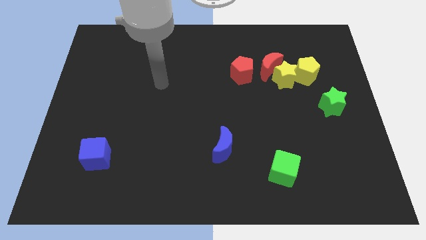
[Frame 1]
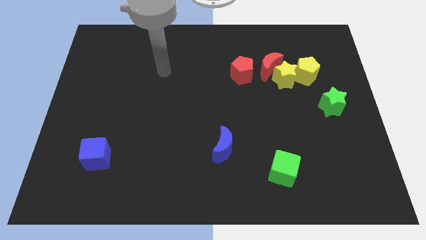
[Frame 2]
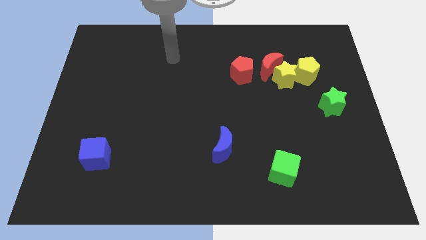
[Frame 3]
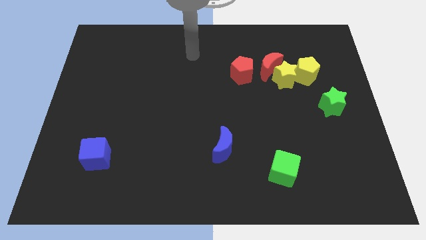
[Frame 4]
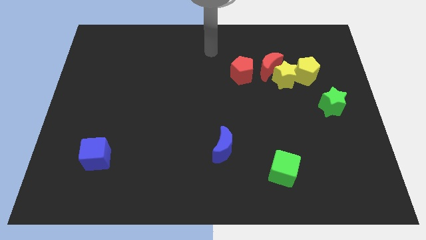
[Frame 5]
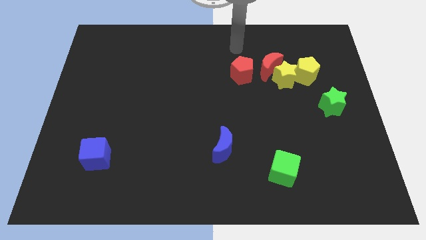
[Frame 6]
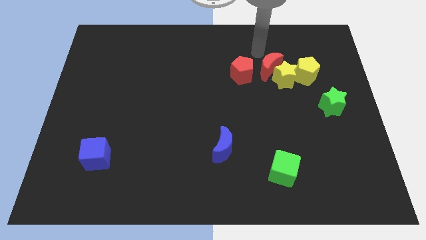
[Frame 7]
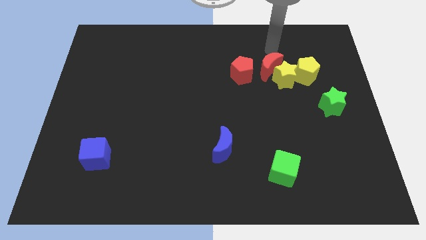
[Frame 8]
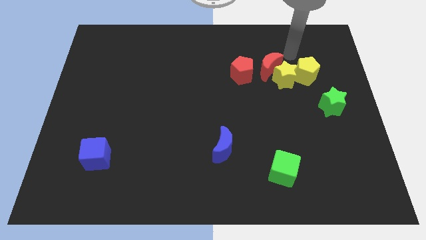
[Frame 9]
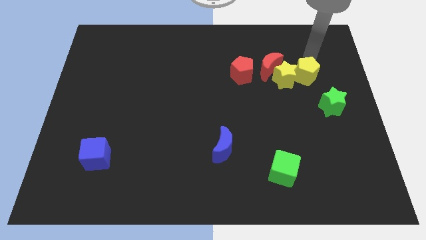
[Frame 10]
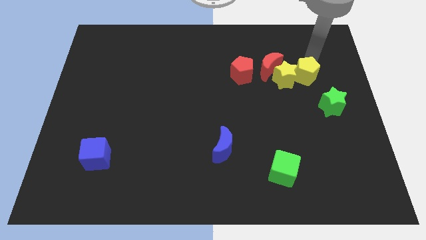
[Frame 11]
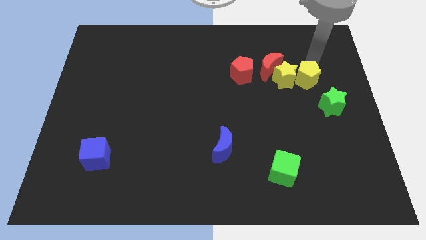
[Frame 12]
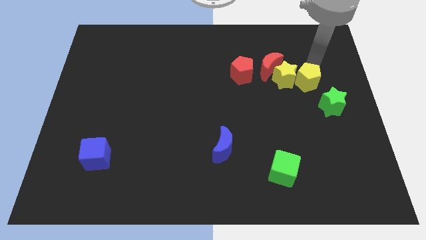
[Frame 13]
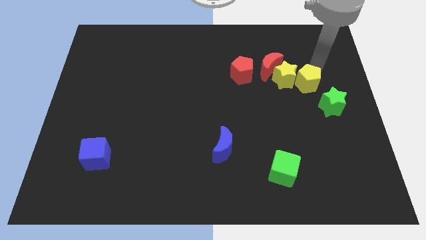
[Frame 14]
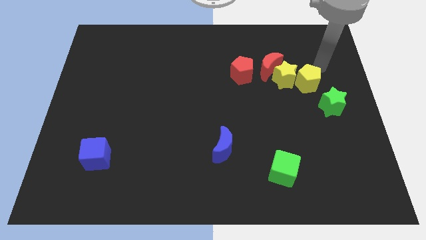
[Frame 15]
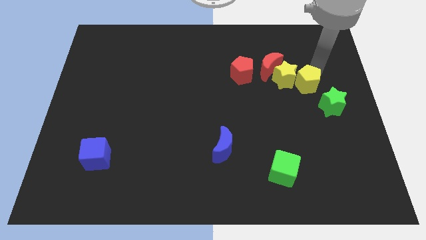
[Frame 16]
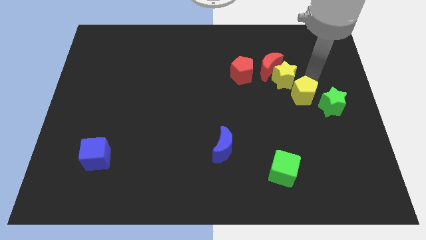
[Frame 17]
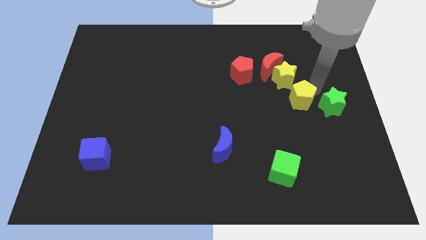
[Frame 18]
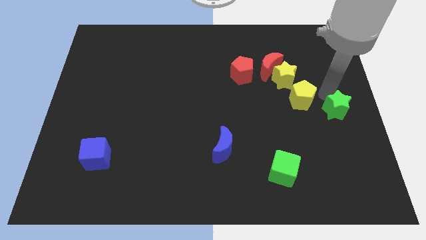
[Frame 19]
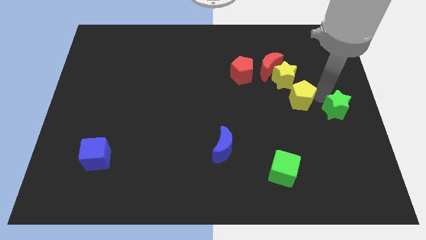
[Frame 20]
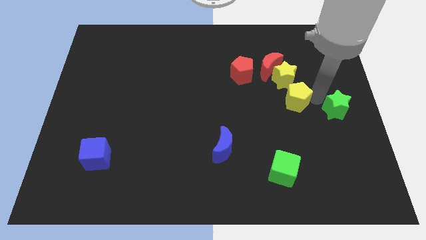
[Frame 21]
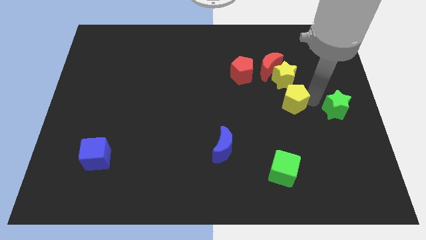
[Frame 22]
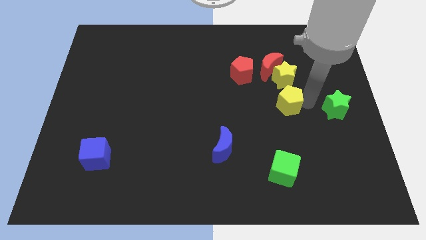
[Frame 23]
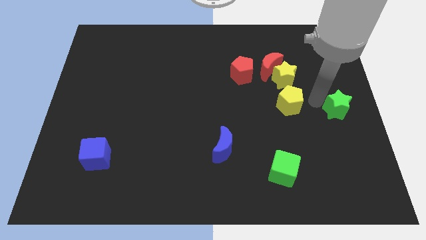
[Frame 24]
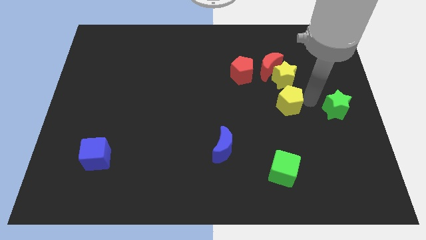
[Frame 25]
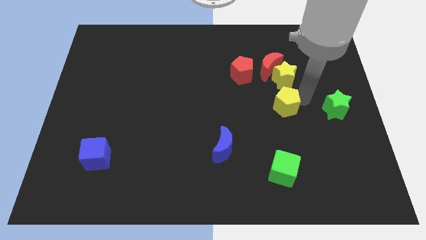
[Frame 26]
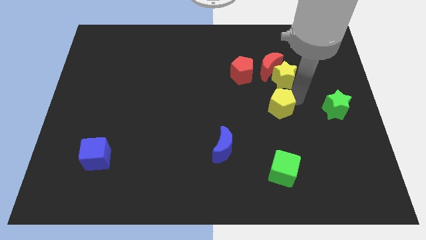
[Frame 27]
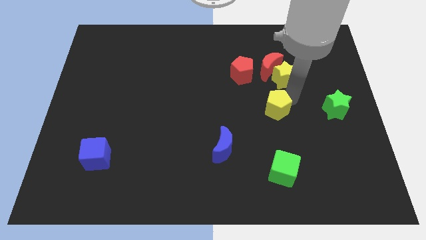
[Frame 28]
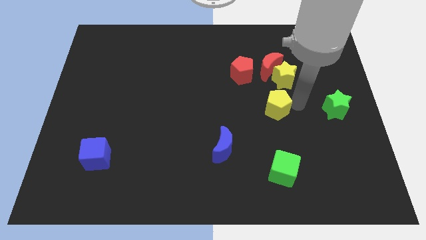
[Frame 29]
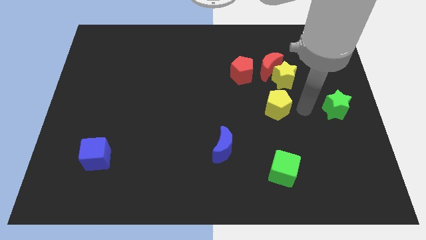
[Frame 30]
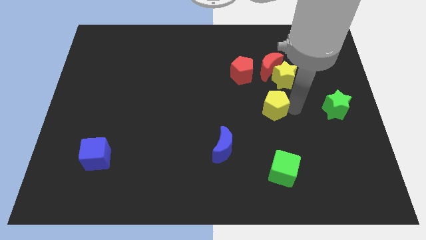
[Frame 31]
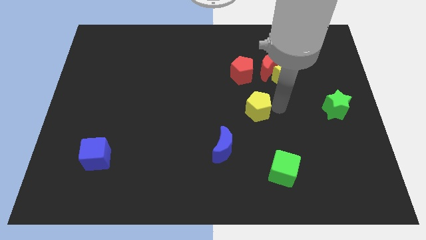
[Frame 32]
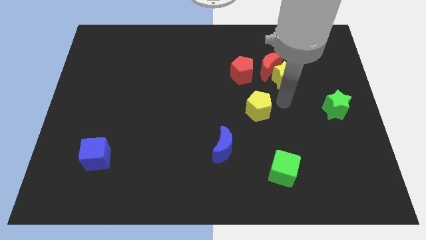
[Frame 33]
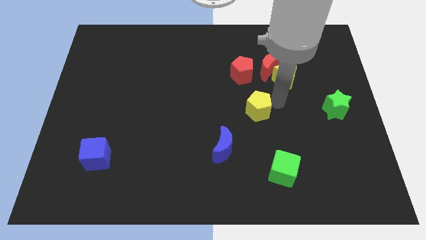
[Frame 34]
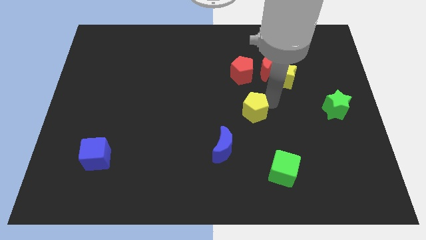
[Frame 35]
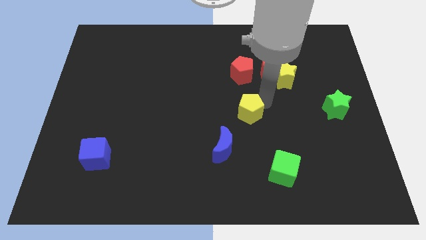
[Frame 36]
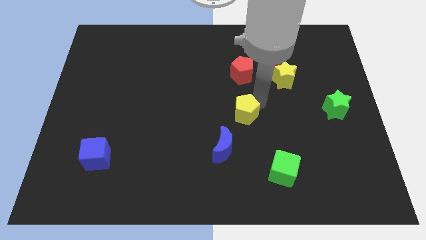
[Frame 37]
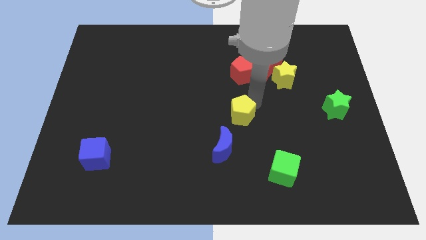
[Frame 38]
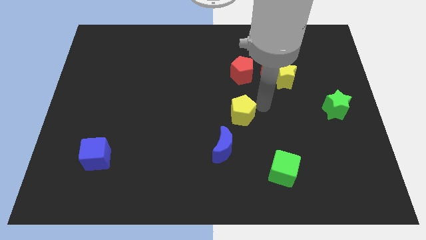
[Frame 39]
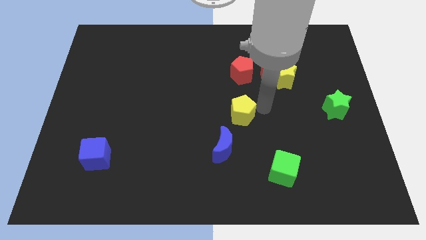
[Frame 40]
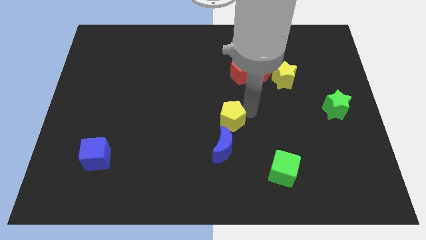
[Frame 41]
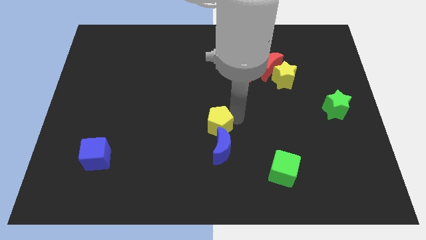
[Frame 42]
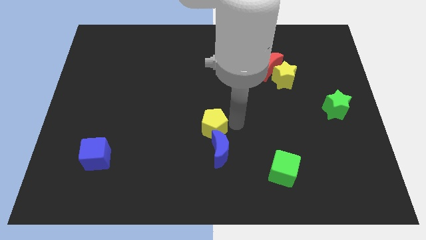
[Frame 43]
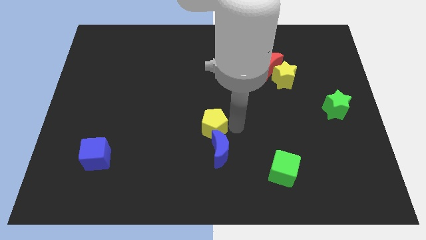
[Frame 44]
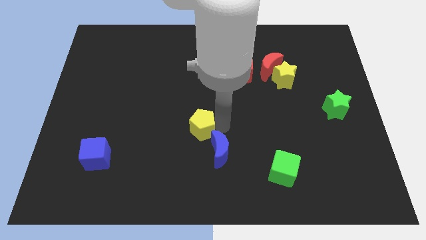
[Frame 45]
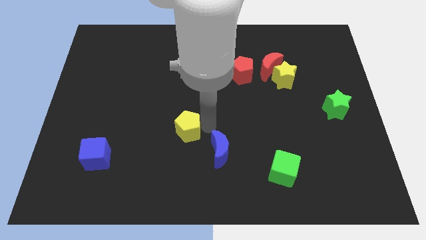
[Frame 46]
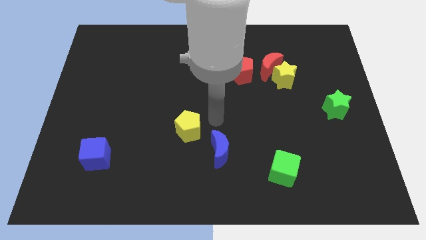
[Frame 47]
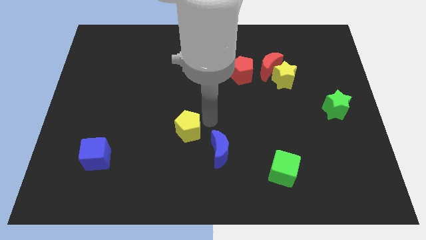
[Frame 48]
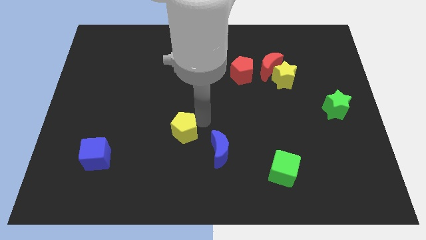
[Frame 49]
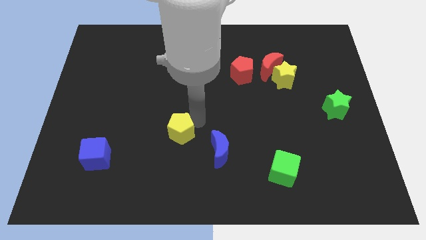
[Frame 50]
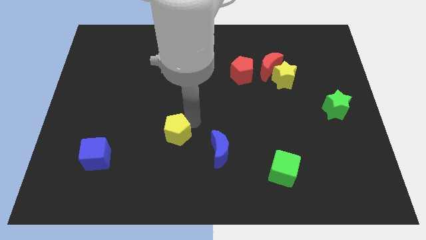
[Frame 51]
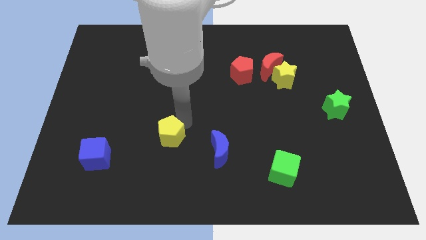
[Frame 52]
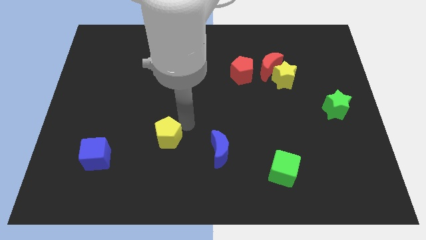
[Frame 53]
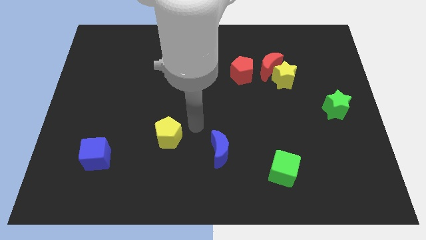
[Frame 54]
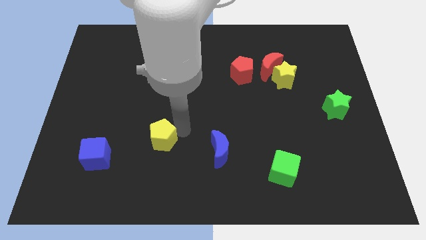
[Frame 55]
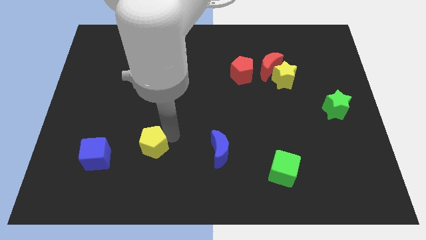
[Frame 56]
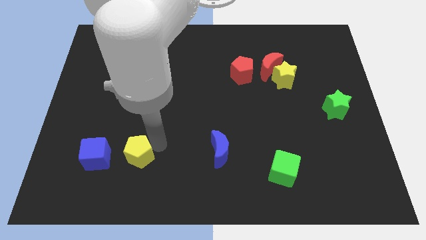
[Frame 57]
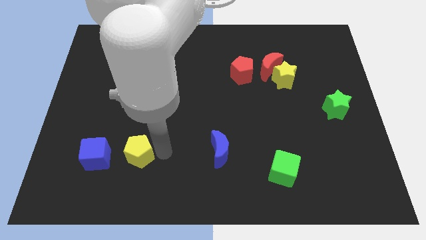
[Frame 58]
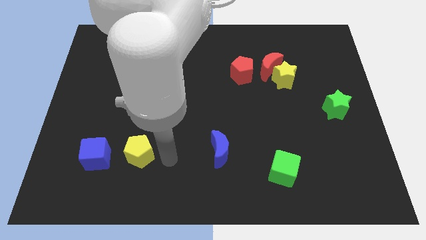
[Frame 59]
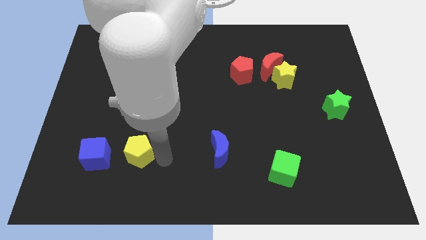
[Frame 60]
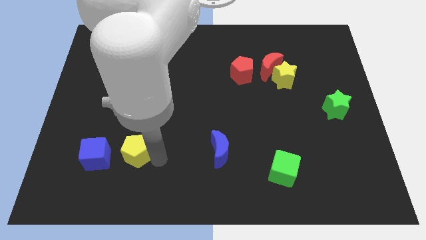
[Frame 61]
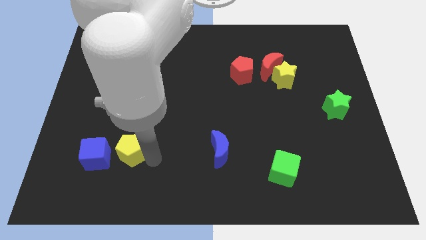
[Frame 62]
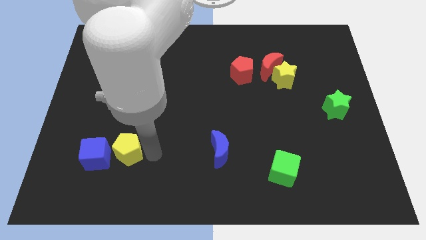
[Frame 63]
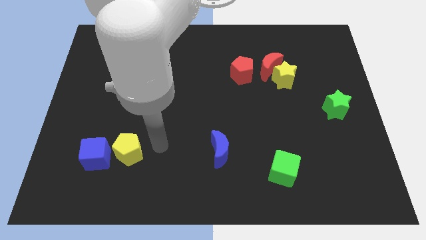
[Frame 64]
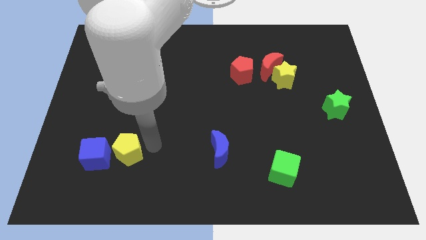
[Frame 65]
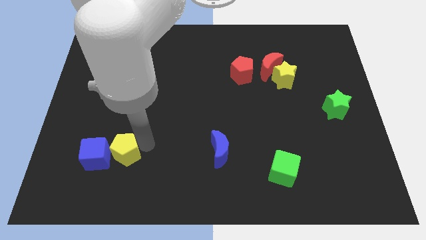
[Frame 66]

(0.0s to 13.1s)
put the yellow pentagon towards the blue cube
